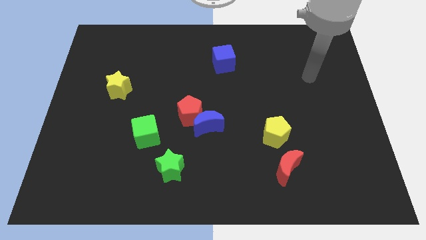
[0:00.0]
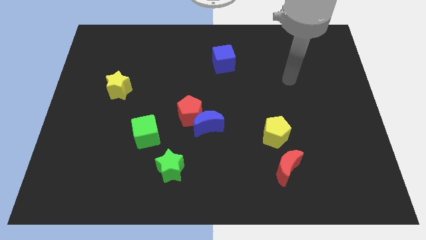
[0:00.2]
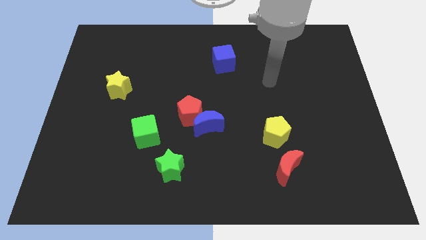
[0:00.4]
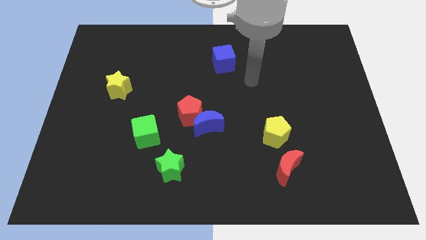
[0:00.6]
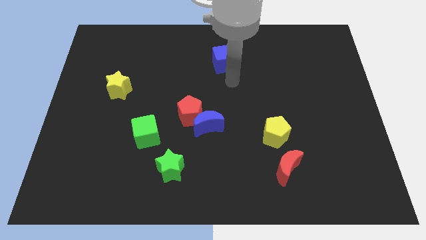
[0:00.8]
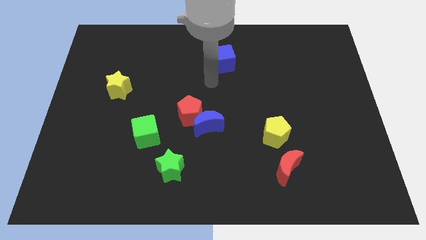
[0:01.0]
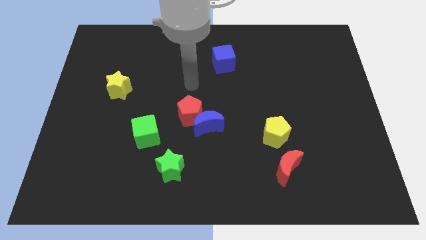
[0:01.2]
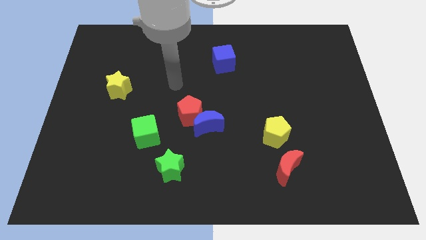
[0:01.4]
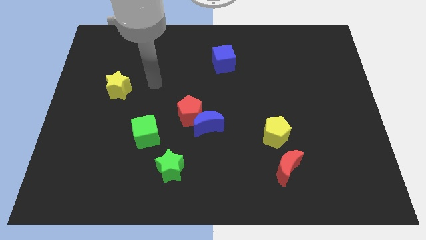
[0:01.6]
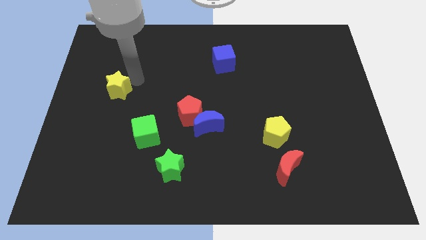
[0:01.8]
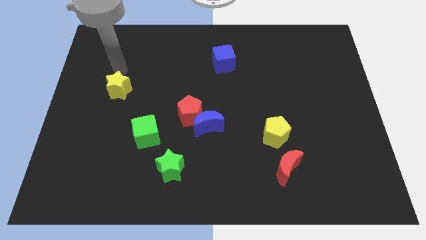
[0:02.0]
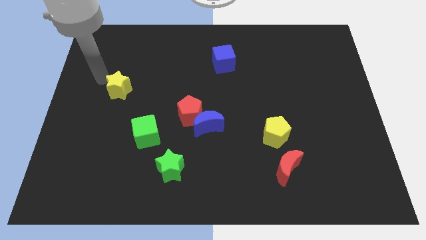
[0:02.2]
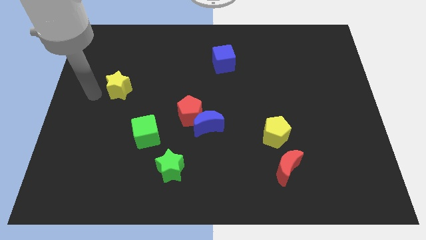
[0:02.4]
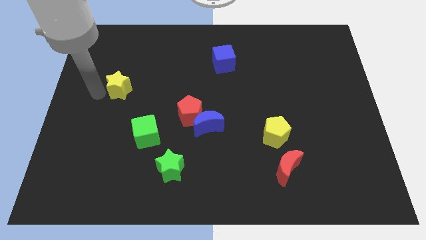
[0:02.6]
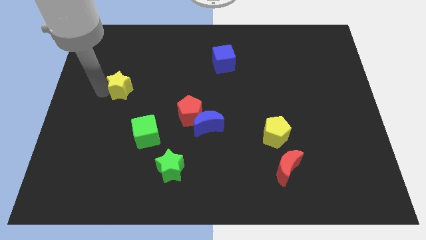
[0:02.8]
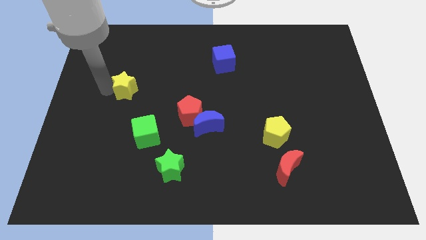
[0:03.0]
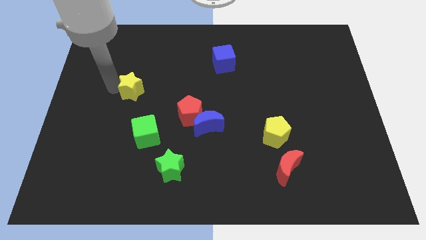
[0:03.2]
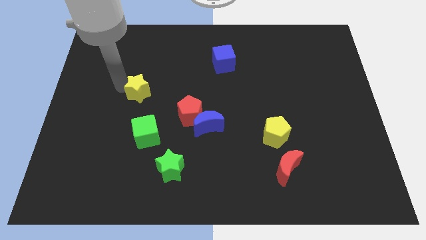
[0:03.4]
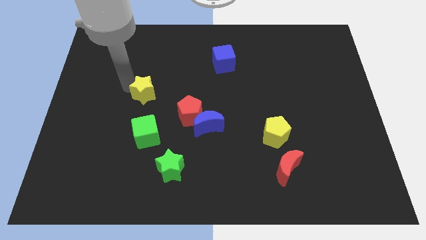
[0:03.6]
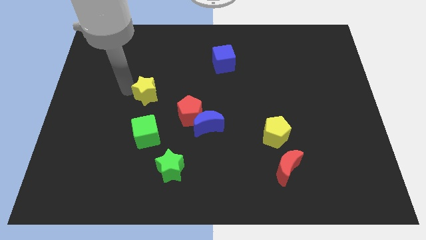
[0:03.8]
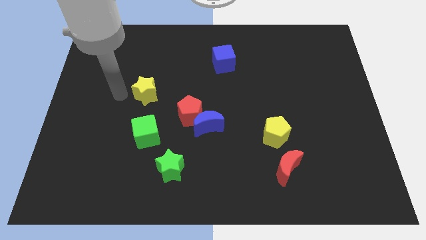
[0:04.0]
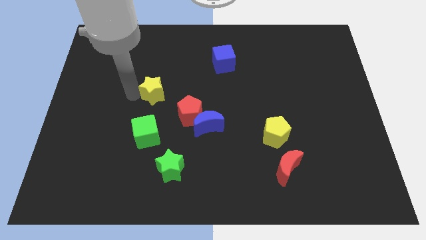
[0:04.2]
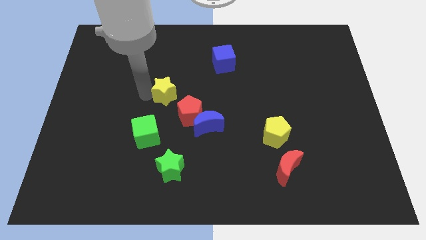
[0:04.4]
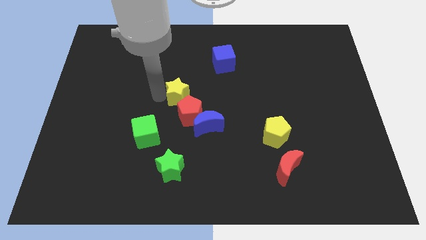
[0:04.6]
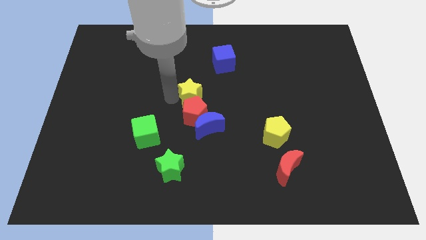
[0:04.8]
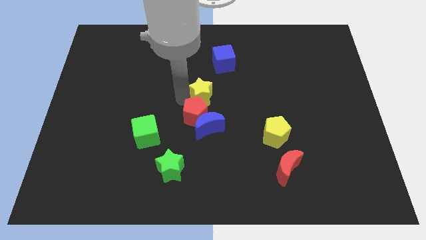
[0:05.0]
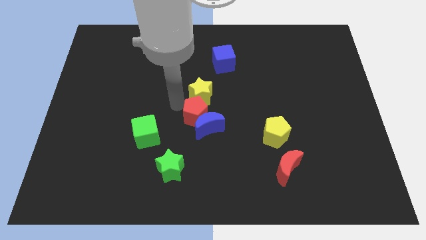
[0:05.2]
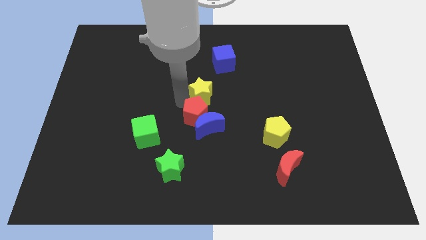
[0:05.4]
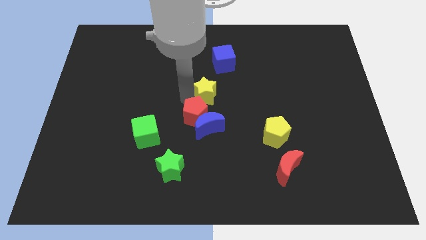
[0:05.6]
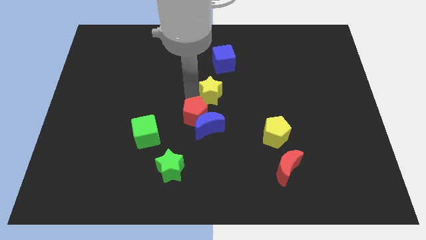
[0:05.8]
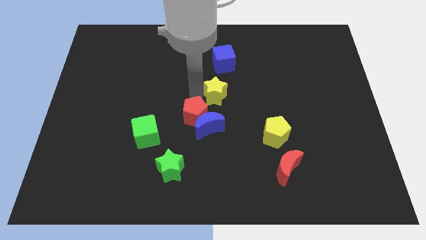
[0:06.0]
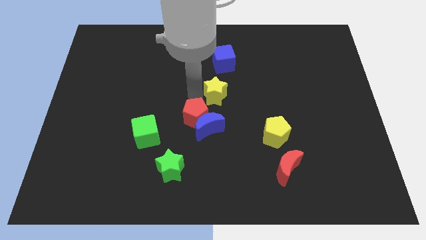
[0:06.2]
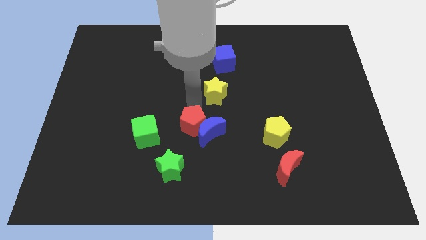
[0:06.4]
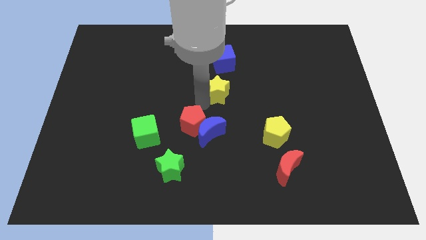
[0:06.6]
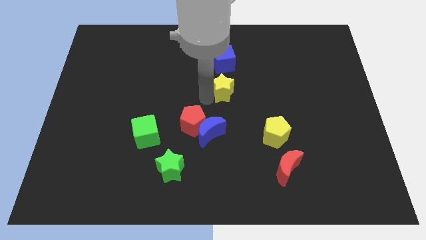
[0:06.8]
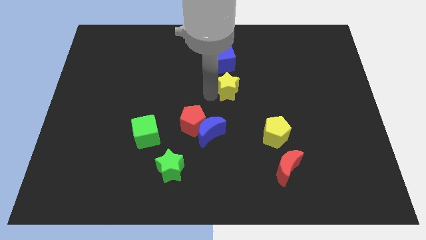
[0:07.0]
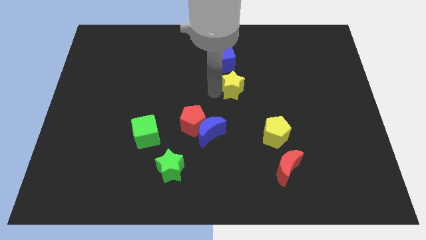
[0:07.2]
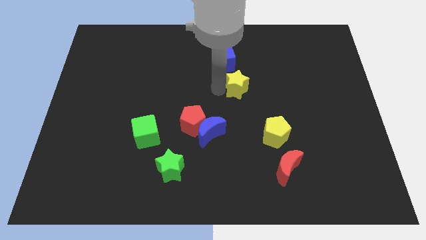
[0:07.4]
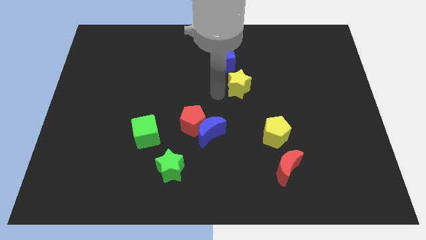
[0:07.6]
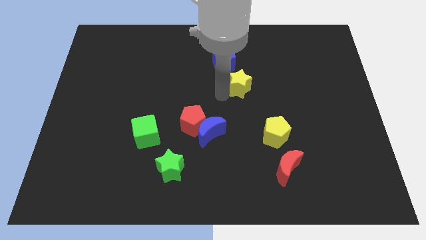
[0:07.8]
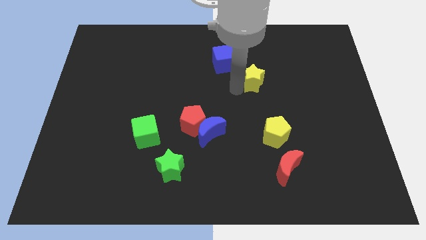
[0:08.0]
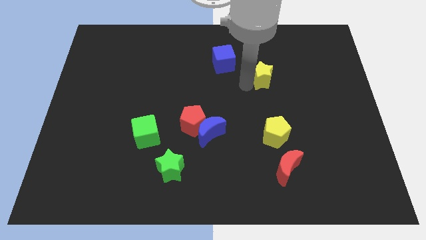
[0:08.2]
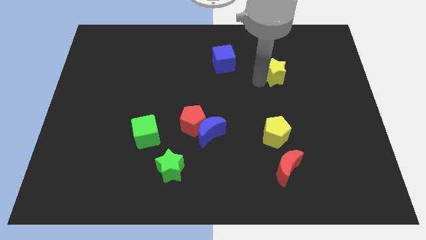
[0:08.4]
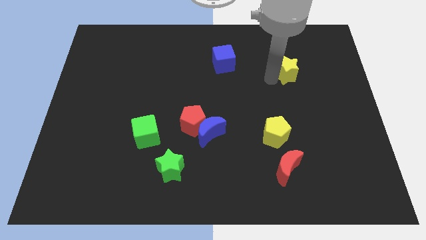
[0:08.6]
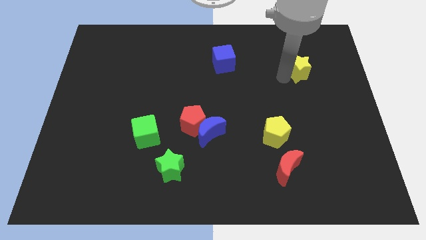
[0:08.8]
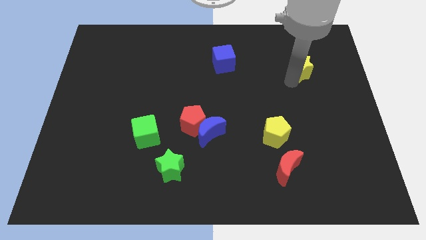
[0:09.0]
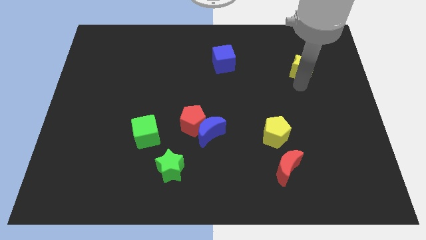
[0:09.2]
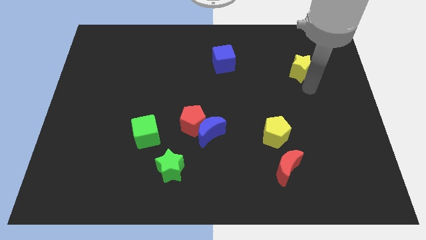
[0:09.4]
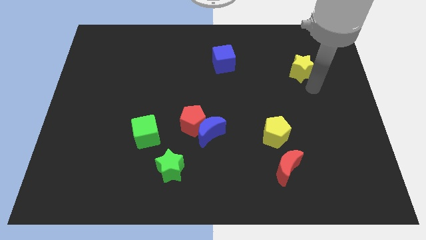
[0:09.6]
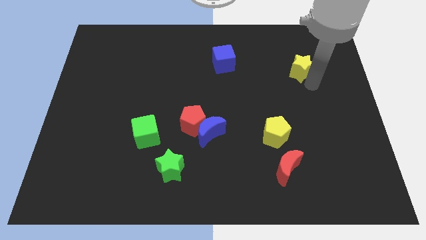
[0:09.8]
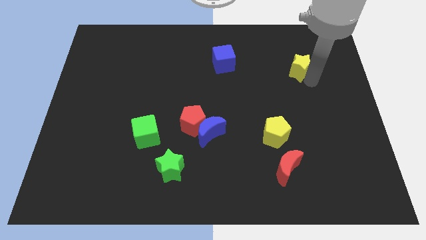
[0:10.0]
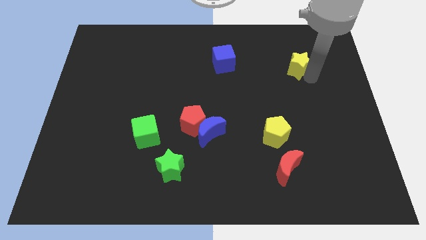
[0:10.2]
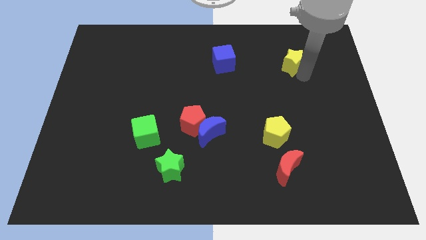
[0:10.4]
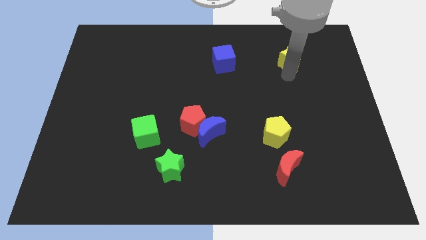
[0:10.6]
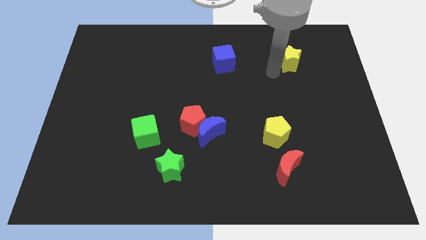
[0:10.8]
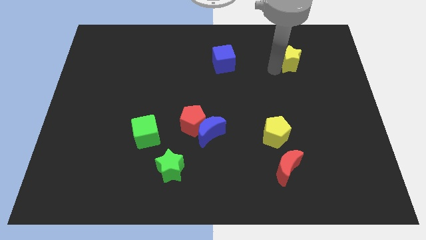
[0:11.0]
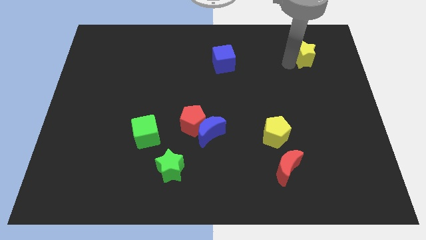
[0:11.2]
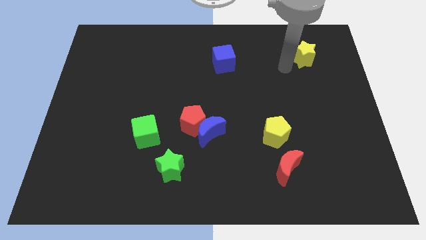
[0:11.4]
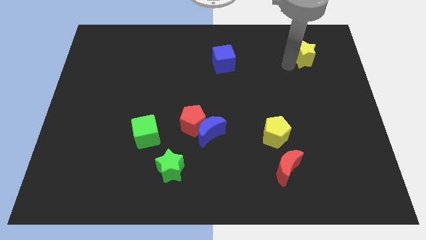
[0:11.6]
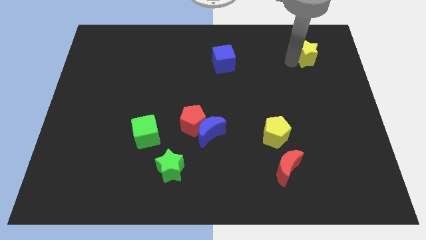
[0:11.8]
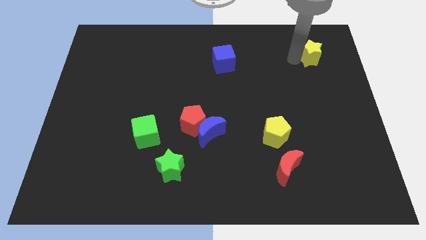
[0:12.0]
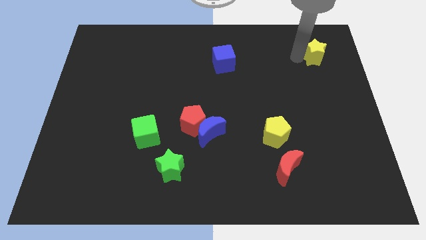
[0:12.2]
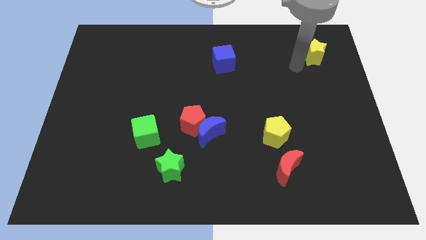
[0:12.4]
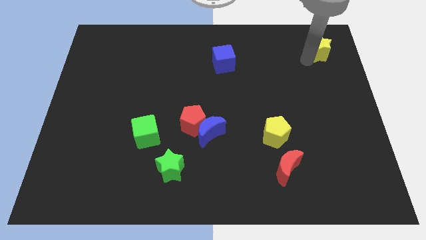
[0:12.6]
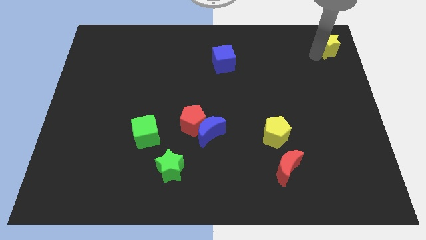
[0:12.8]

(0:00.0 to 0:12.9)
move the yellow star to the top right
